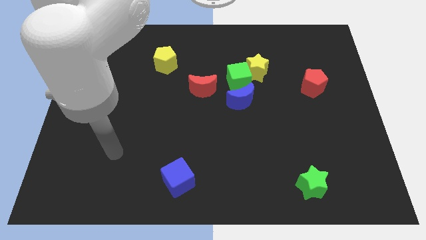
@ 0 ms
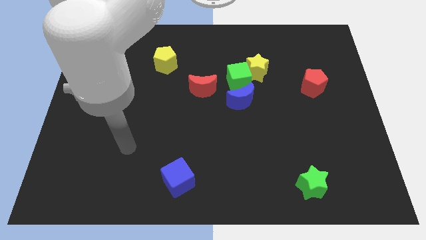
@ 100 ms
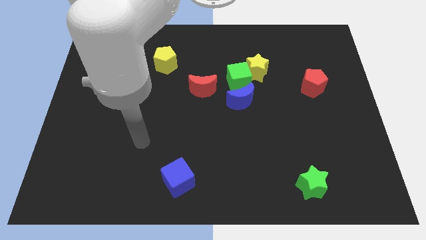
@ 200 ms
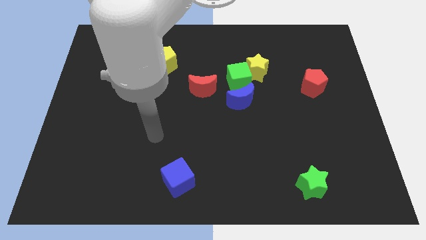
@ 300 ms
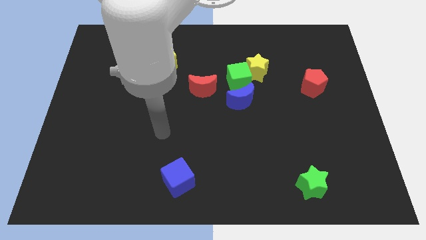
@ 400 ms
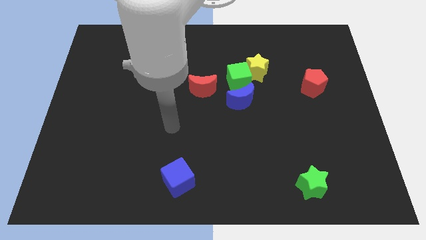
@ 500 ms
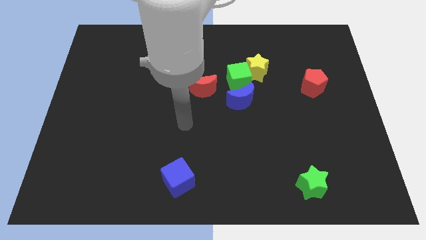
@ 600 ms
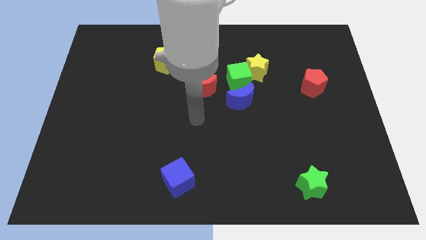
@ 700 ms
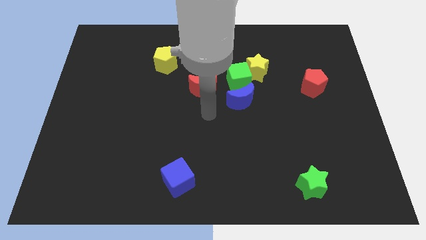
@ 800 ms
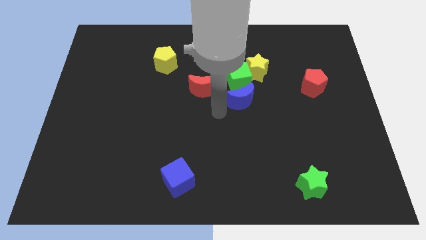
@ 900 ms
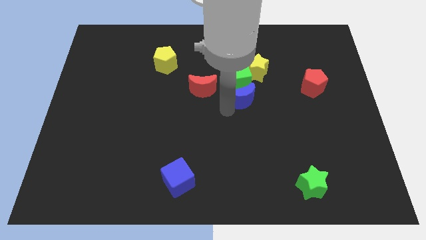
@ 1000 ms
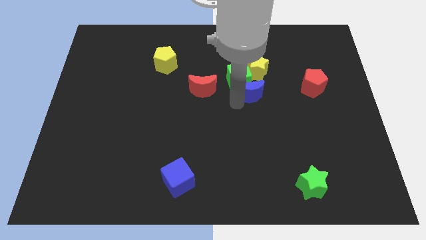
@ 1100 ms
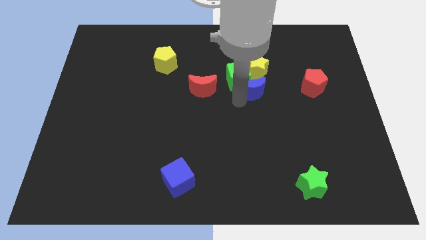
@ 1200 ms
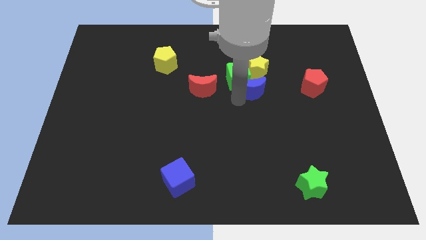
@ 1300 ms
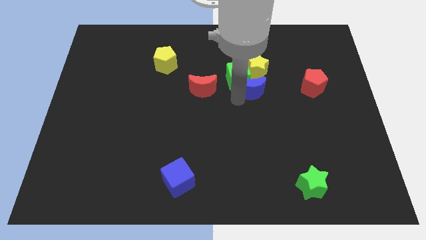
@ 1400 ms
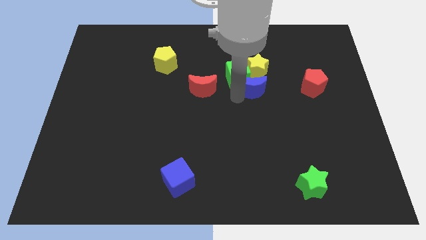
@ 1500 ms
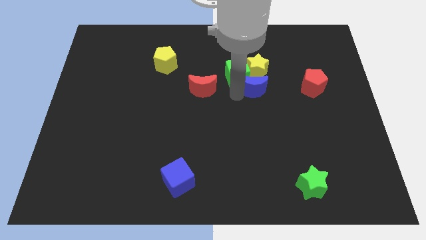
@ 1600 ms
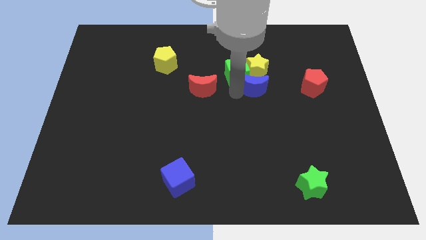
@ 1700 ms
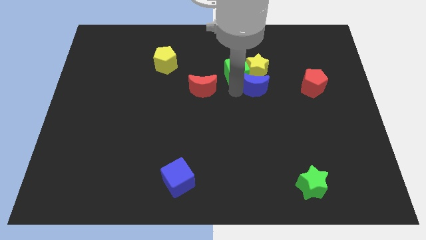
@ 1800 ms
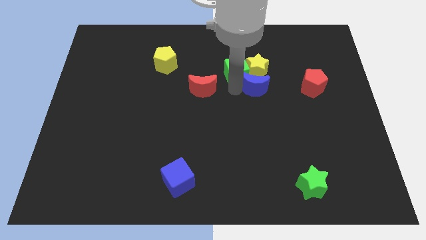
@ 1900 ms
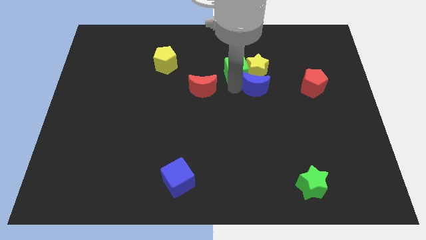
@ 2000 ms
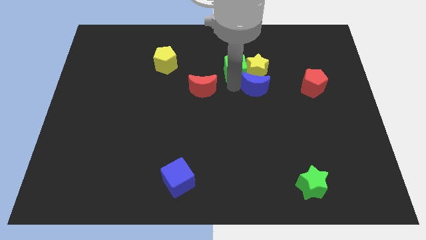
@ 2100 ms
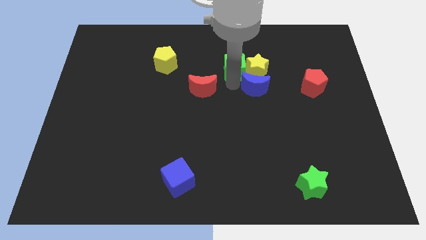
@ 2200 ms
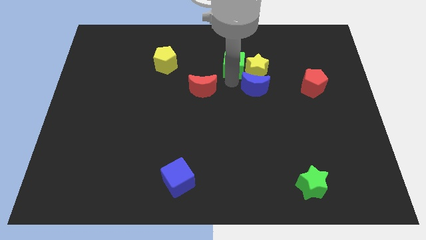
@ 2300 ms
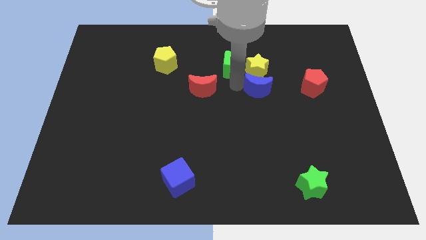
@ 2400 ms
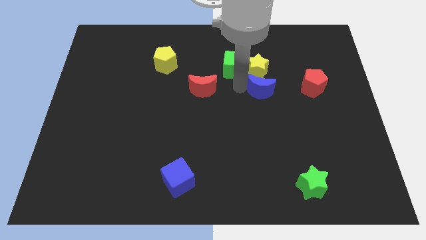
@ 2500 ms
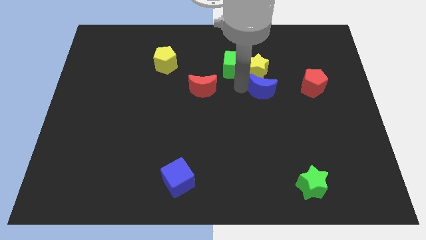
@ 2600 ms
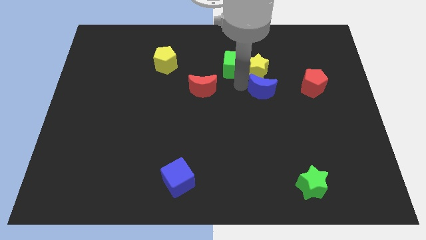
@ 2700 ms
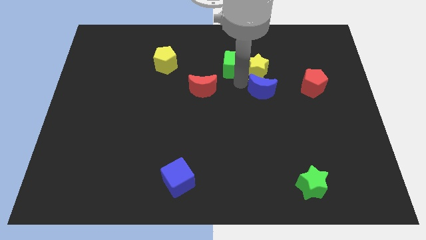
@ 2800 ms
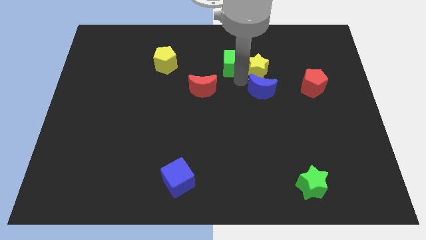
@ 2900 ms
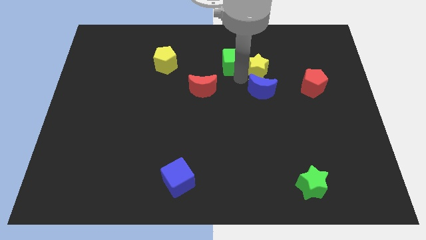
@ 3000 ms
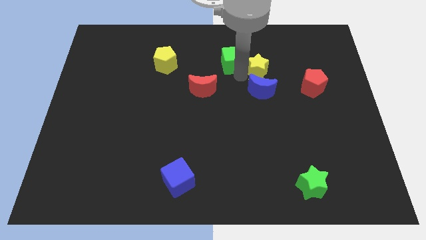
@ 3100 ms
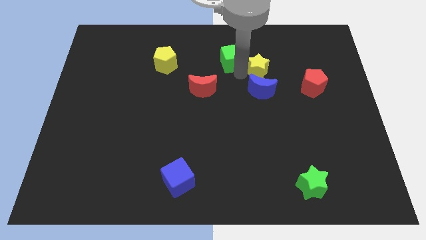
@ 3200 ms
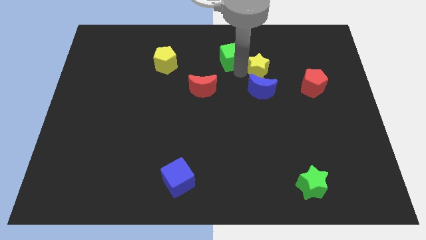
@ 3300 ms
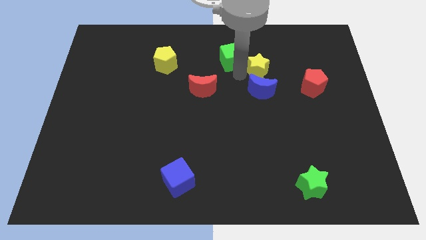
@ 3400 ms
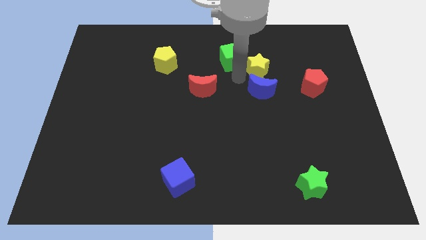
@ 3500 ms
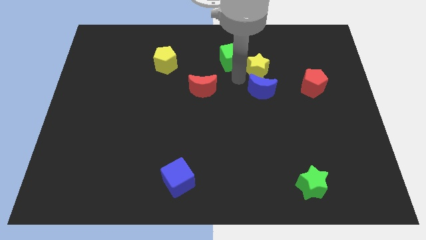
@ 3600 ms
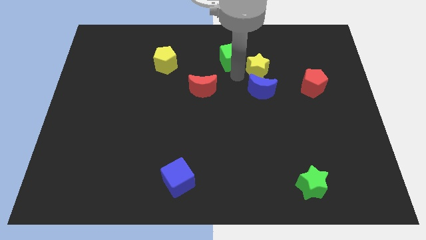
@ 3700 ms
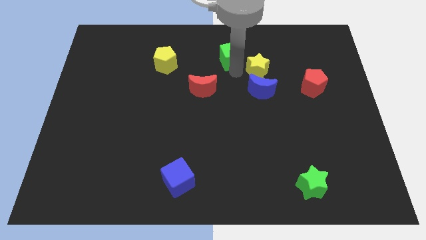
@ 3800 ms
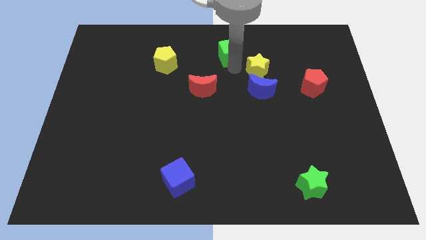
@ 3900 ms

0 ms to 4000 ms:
move the green cube away from the yellow star, blue moon, and red moon

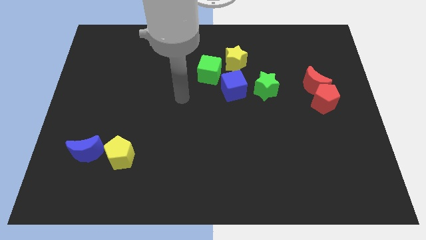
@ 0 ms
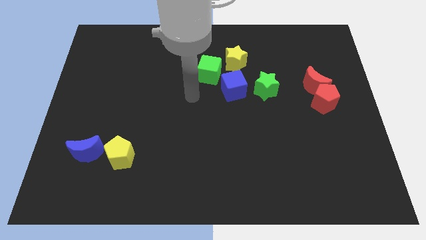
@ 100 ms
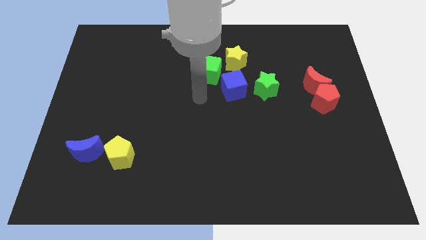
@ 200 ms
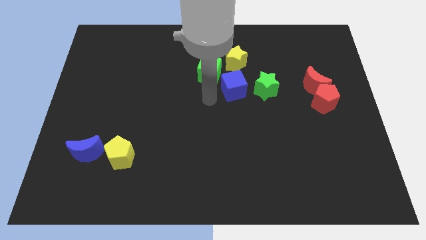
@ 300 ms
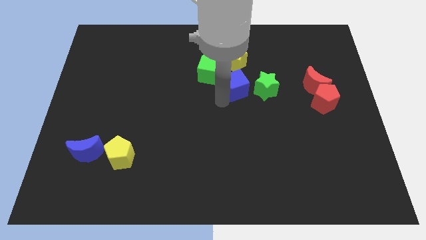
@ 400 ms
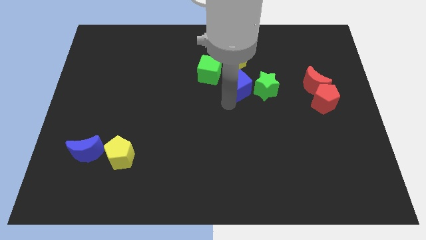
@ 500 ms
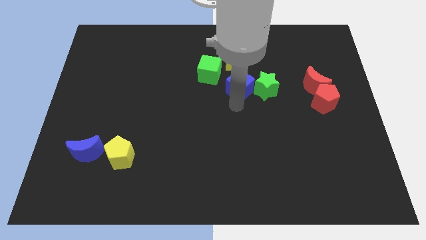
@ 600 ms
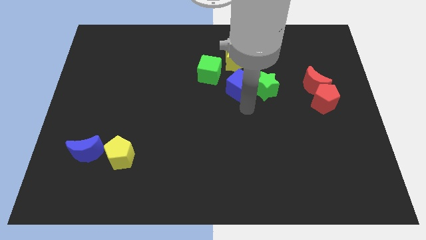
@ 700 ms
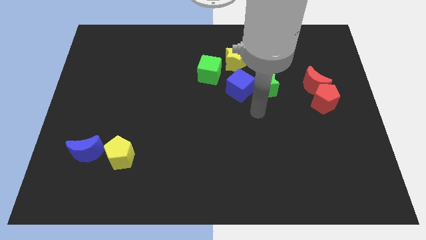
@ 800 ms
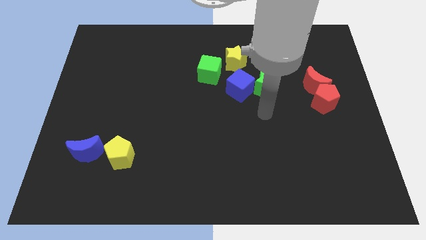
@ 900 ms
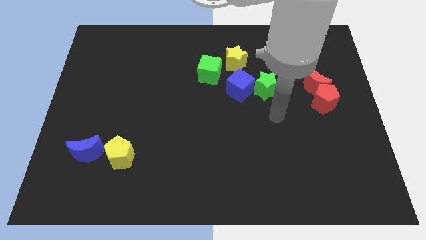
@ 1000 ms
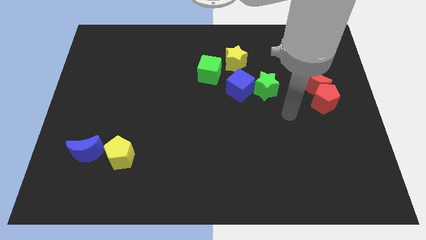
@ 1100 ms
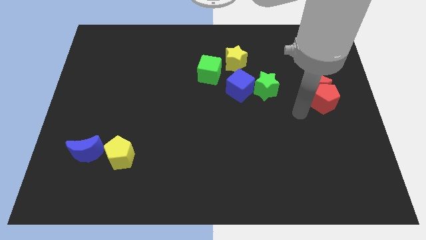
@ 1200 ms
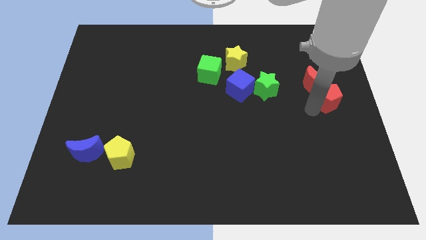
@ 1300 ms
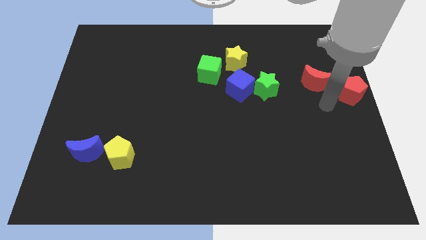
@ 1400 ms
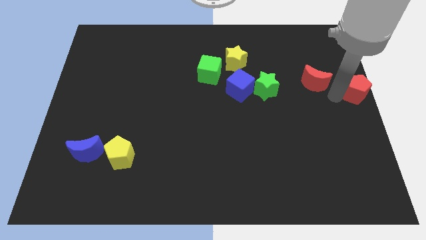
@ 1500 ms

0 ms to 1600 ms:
move the red moon away from the red pentagon

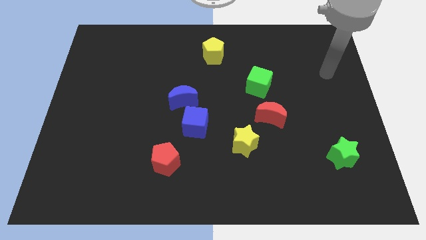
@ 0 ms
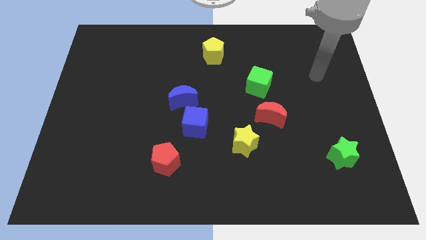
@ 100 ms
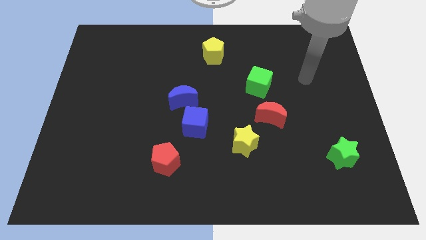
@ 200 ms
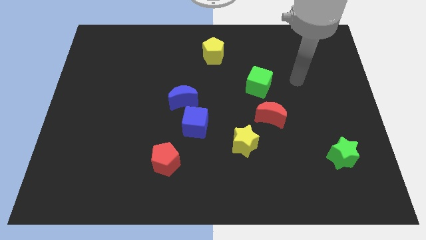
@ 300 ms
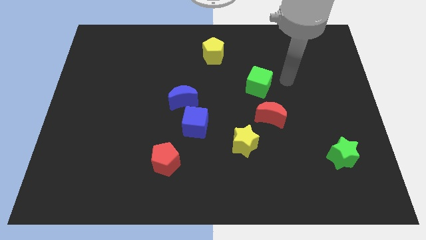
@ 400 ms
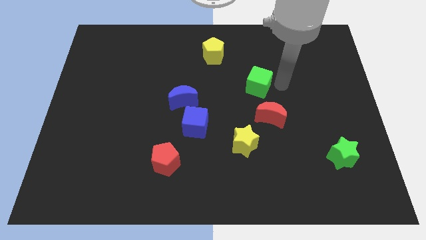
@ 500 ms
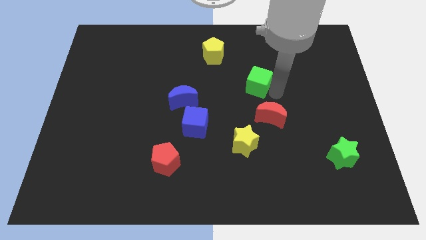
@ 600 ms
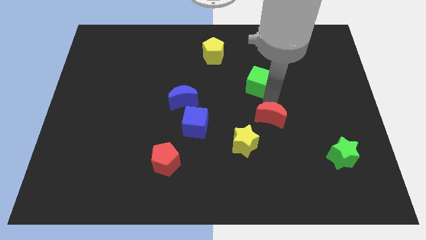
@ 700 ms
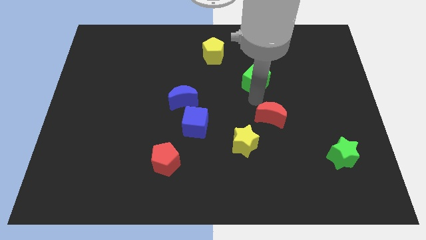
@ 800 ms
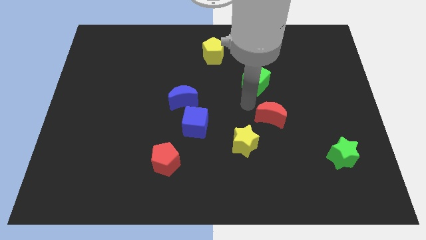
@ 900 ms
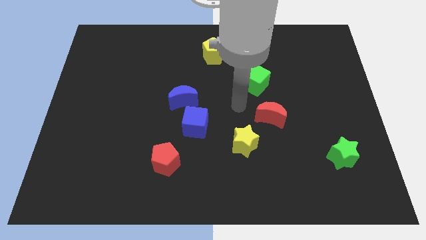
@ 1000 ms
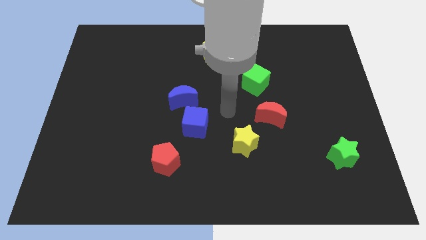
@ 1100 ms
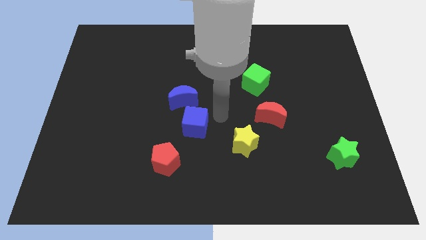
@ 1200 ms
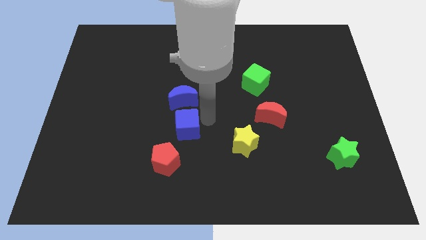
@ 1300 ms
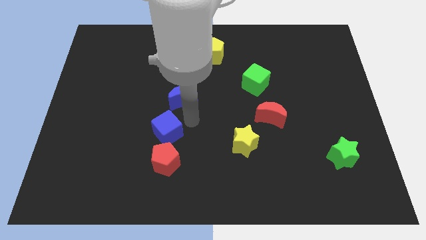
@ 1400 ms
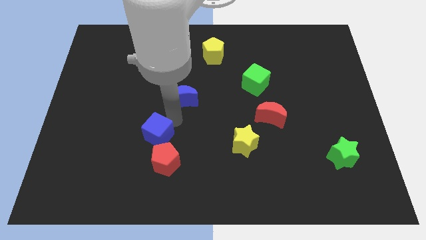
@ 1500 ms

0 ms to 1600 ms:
pull the blue moon apart from the blue cube

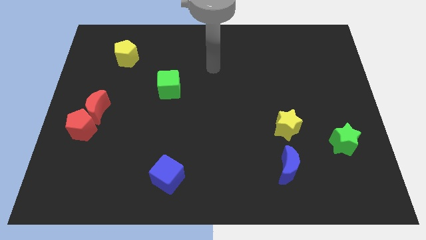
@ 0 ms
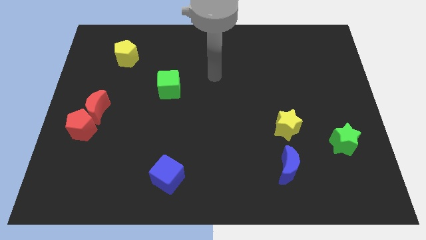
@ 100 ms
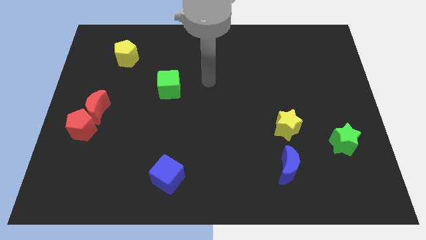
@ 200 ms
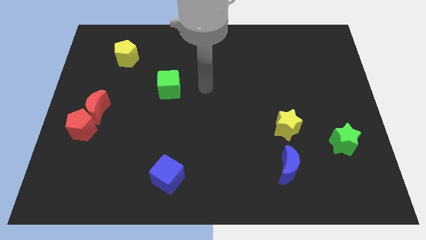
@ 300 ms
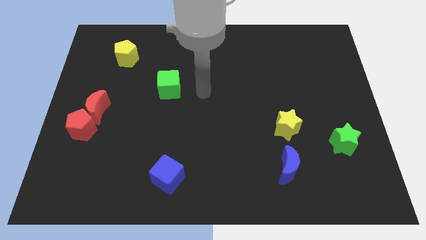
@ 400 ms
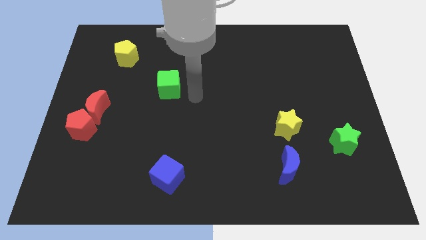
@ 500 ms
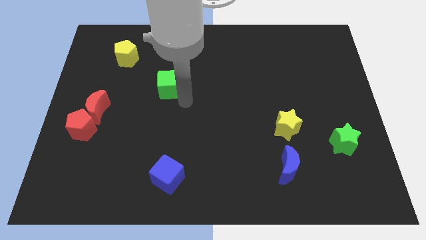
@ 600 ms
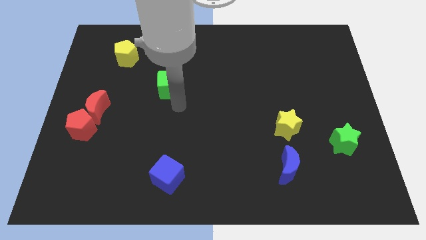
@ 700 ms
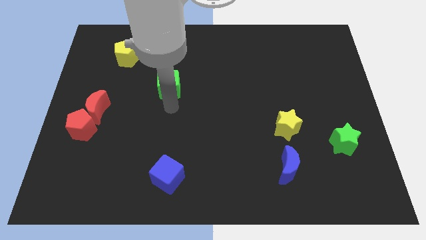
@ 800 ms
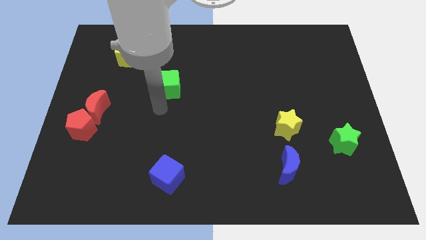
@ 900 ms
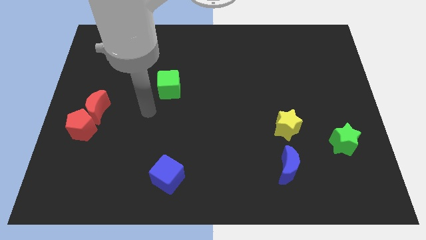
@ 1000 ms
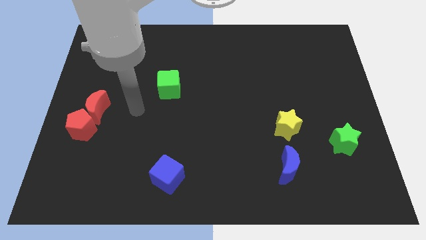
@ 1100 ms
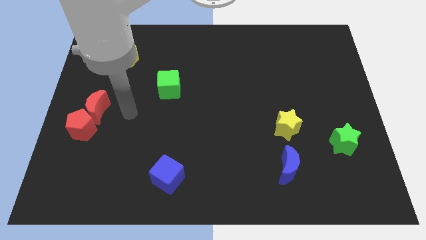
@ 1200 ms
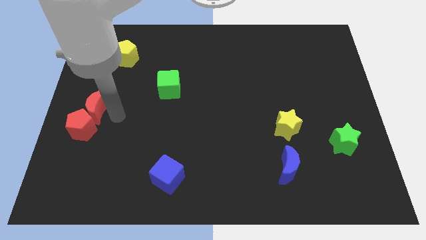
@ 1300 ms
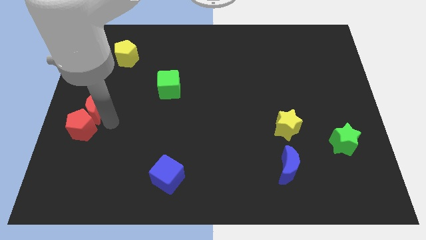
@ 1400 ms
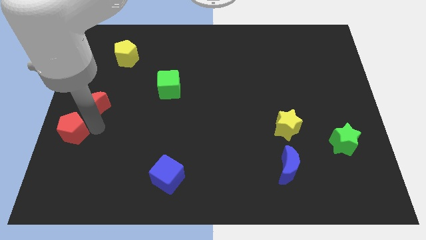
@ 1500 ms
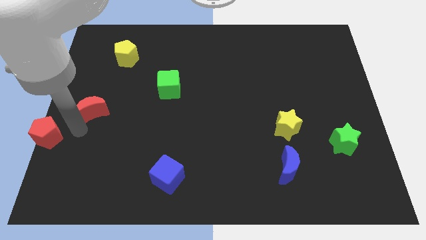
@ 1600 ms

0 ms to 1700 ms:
separate the red moon from the red pentagon

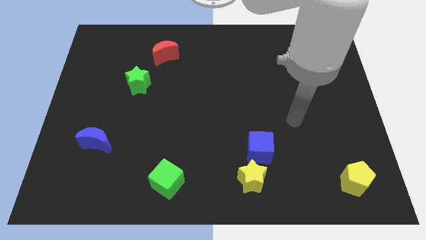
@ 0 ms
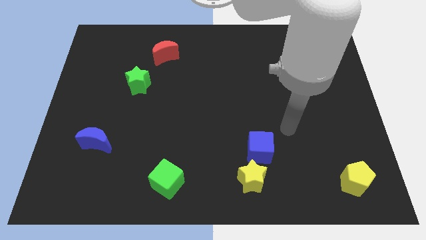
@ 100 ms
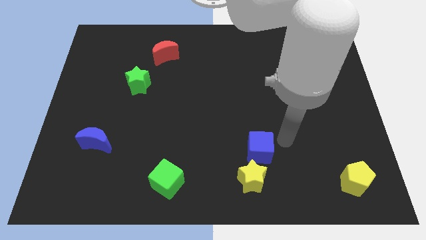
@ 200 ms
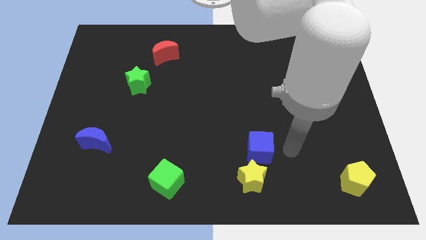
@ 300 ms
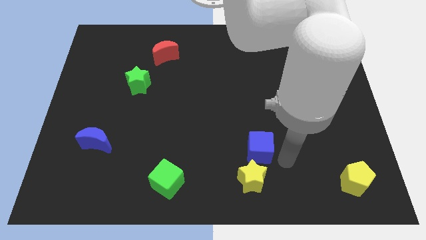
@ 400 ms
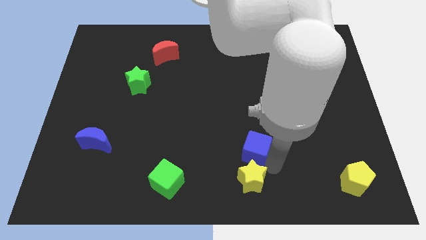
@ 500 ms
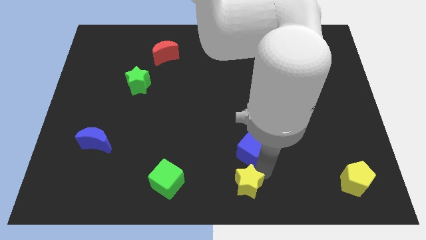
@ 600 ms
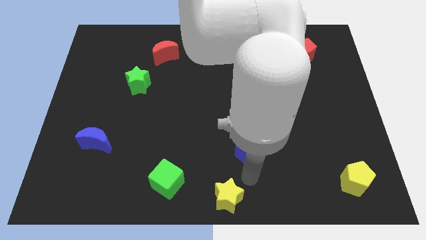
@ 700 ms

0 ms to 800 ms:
pull the blue cube apart from the yellow star
